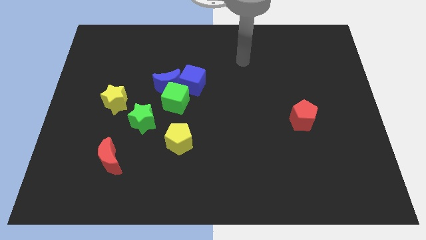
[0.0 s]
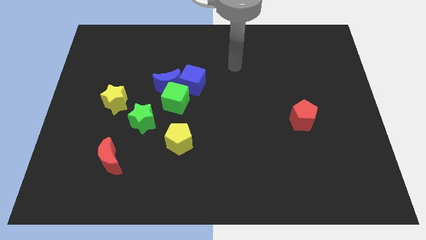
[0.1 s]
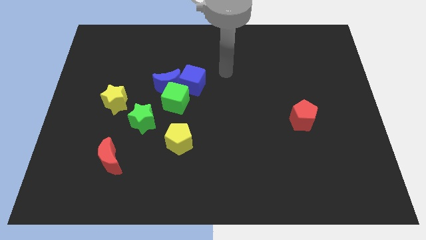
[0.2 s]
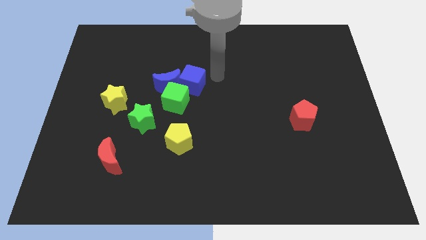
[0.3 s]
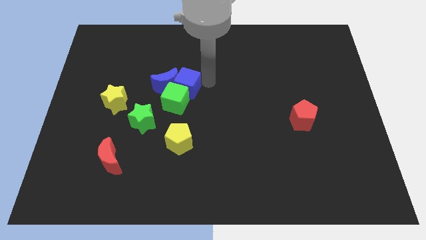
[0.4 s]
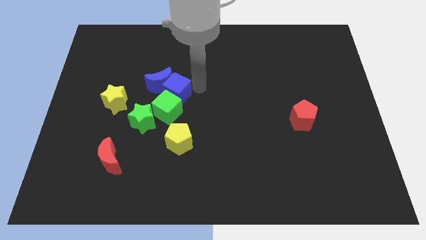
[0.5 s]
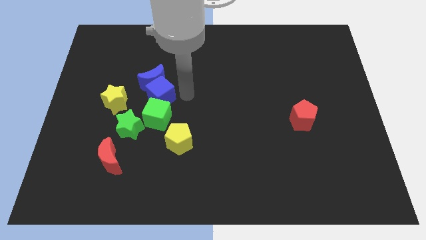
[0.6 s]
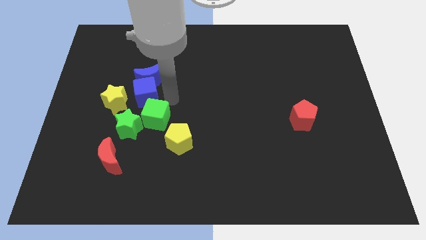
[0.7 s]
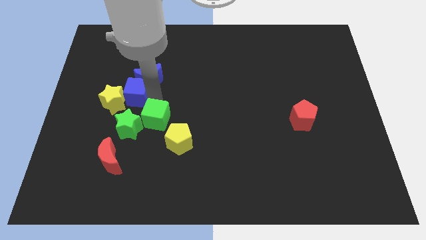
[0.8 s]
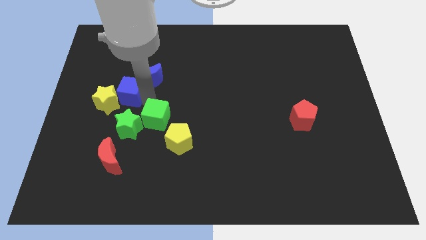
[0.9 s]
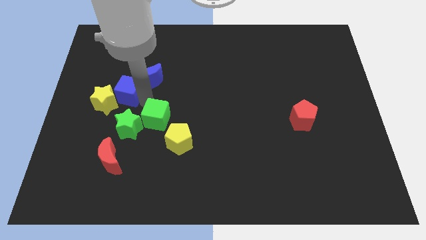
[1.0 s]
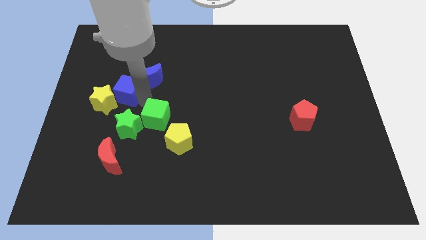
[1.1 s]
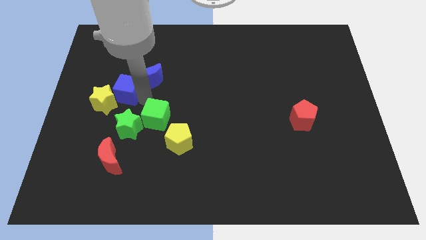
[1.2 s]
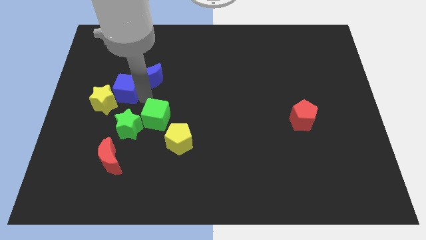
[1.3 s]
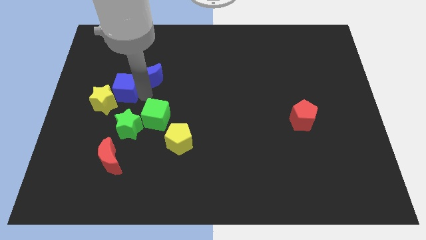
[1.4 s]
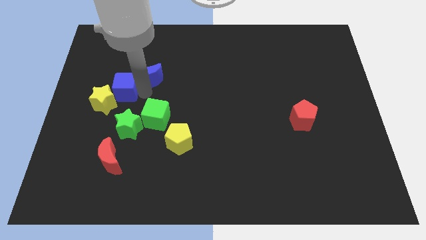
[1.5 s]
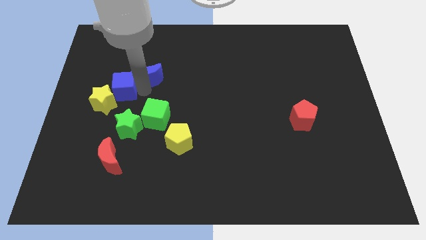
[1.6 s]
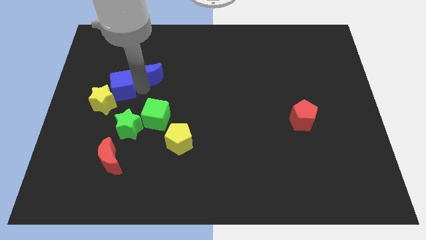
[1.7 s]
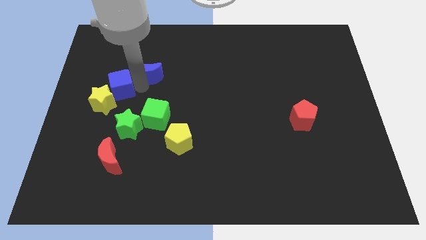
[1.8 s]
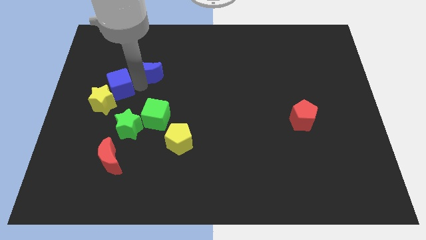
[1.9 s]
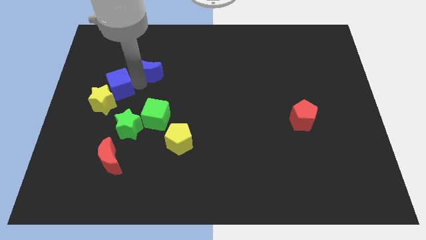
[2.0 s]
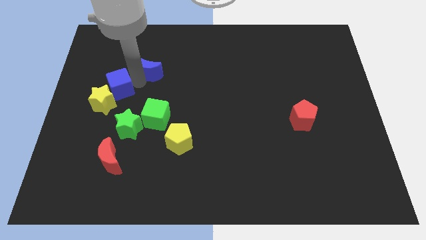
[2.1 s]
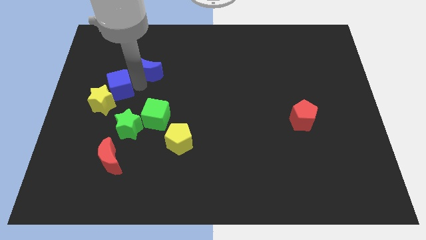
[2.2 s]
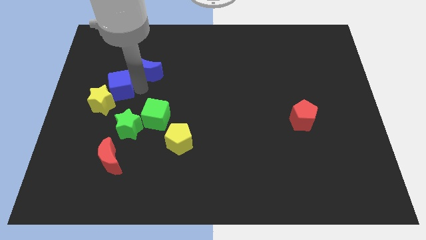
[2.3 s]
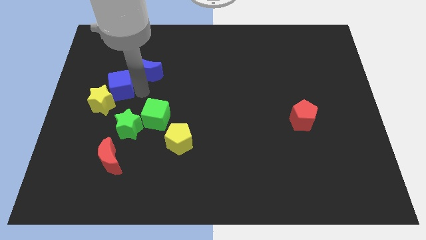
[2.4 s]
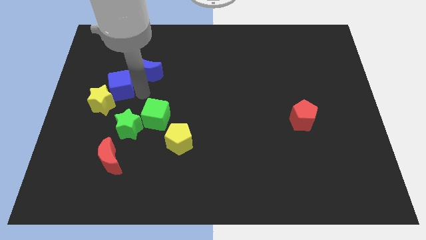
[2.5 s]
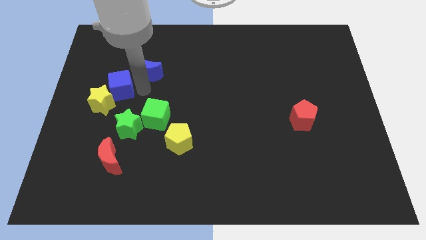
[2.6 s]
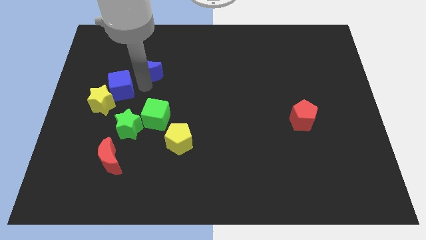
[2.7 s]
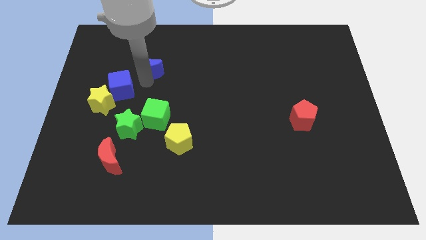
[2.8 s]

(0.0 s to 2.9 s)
separate the blue moon from the green cube and blue cube

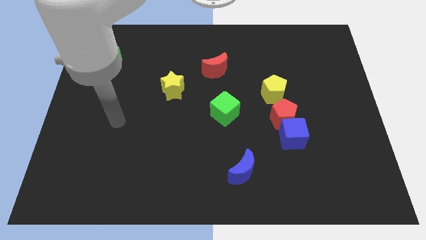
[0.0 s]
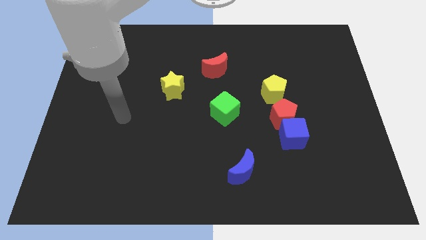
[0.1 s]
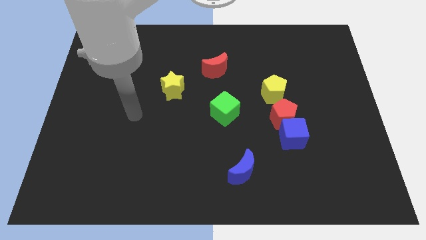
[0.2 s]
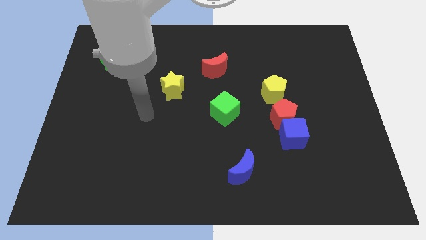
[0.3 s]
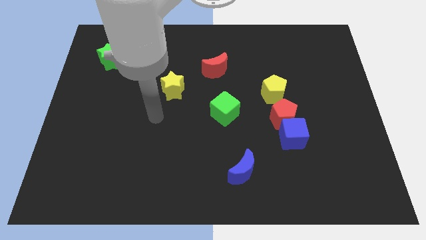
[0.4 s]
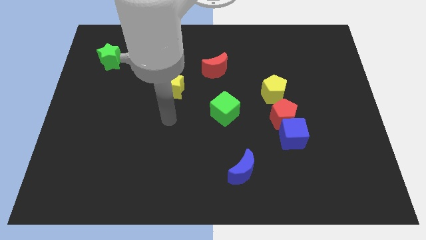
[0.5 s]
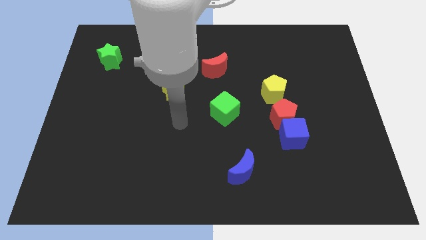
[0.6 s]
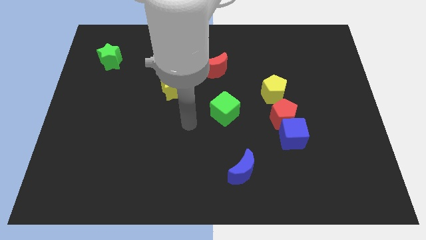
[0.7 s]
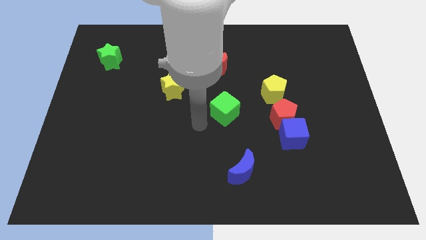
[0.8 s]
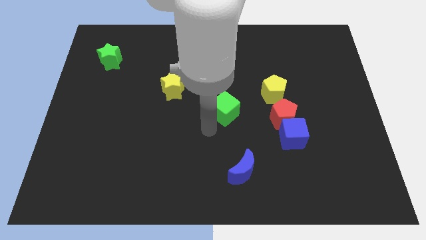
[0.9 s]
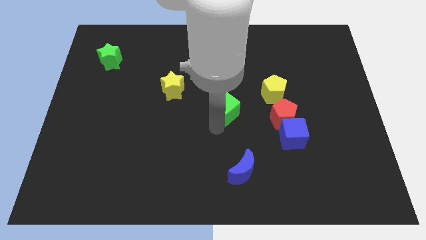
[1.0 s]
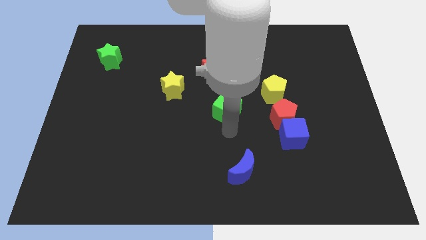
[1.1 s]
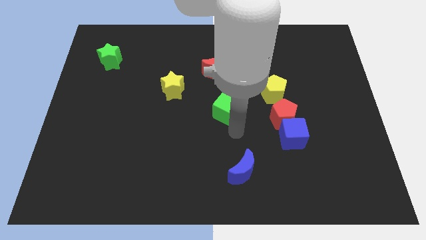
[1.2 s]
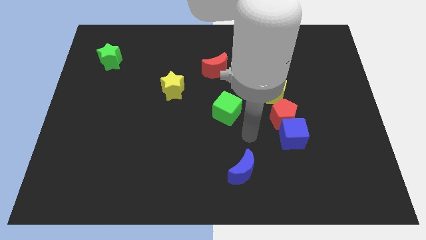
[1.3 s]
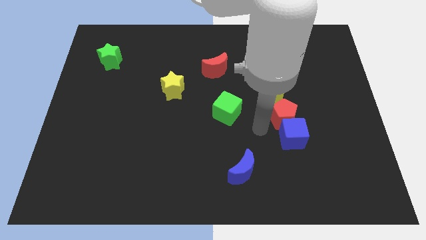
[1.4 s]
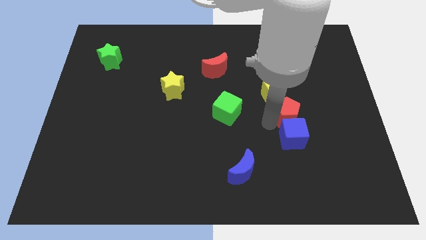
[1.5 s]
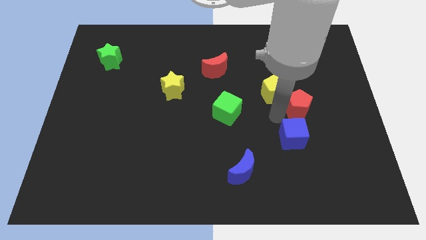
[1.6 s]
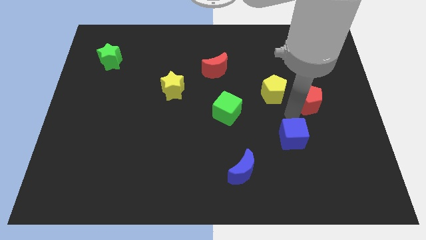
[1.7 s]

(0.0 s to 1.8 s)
pull the blue cube apart from the red pentagon

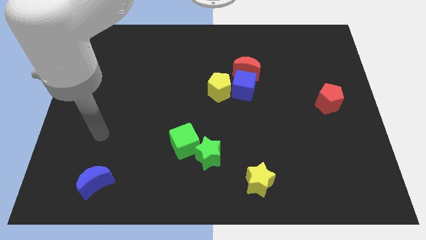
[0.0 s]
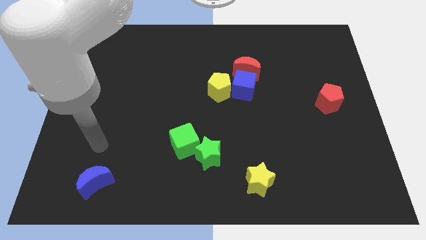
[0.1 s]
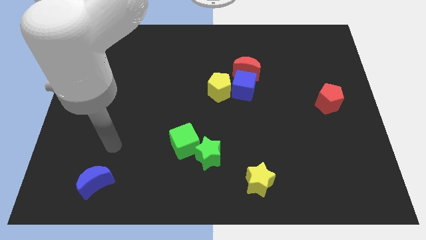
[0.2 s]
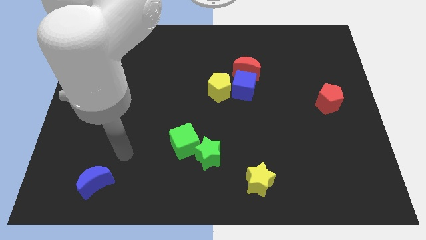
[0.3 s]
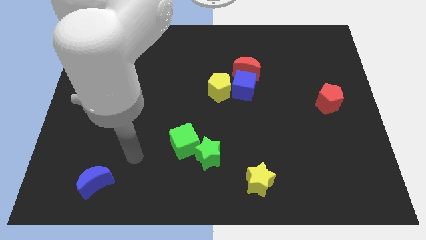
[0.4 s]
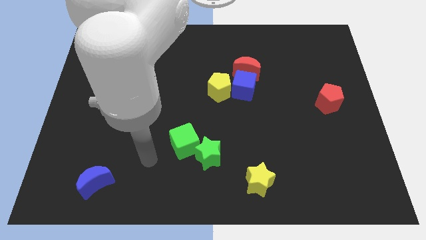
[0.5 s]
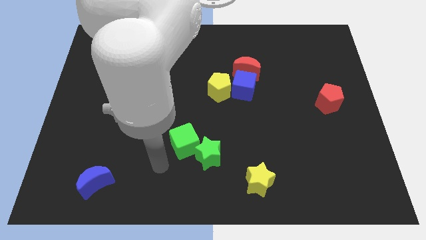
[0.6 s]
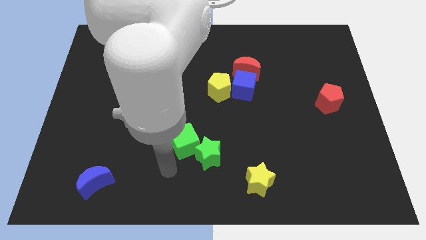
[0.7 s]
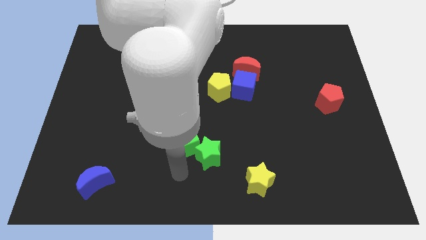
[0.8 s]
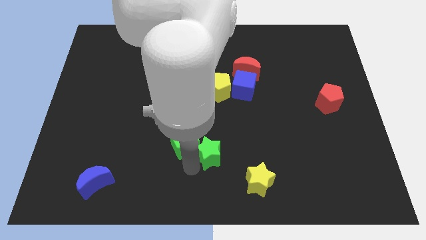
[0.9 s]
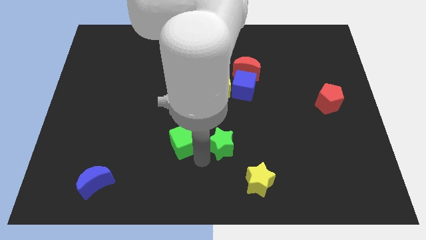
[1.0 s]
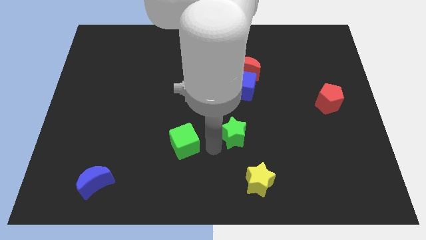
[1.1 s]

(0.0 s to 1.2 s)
move the green cube away from the green star

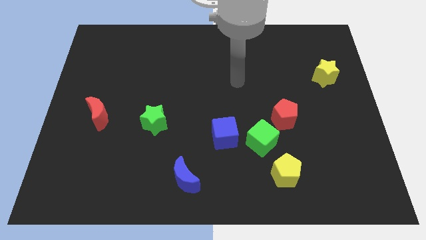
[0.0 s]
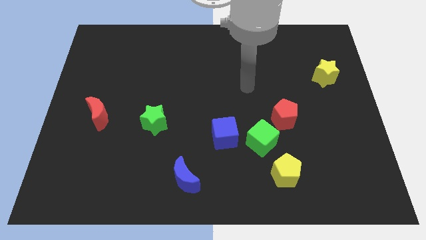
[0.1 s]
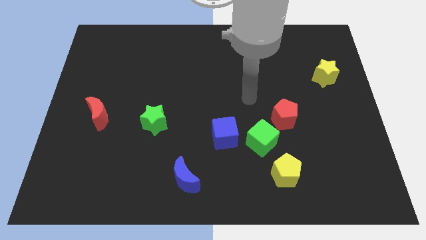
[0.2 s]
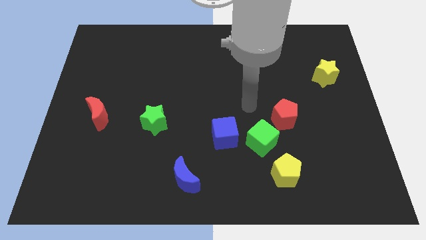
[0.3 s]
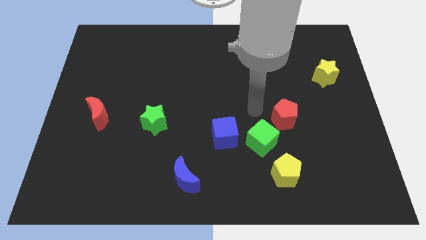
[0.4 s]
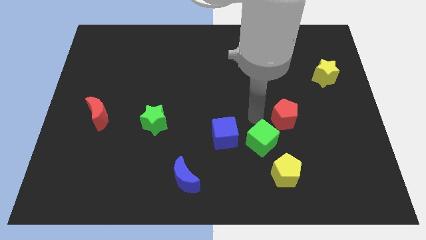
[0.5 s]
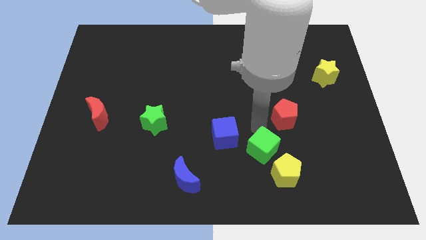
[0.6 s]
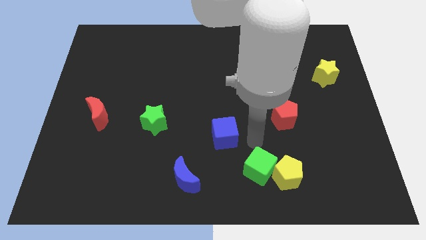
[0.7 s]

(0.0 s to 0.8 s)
move the blue cube away from the green cube

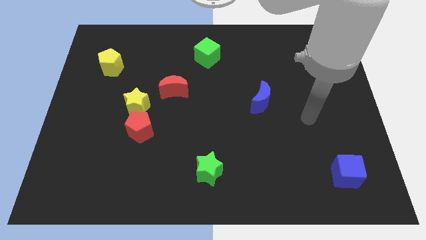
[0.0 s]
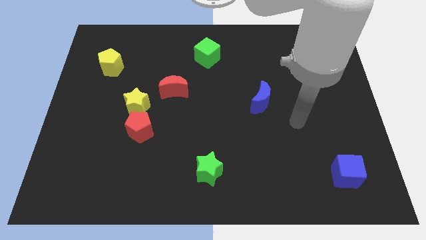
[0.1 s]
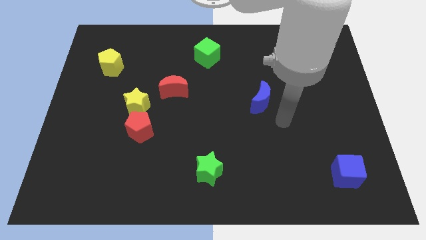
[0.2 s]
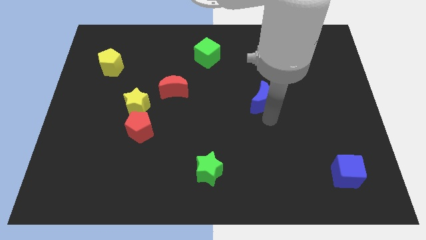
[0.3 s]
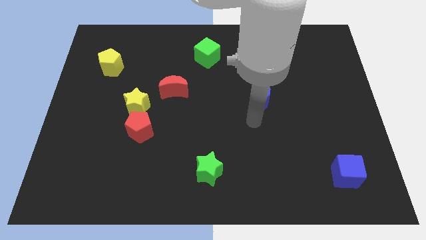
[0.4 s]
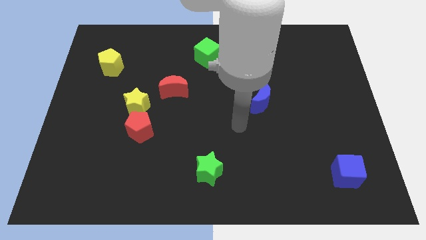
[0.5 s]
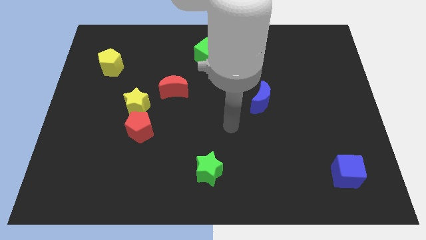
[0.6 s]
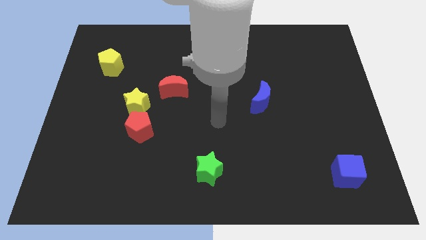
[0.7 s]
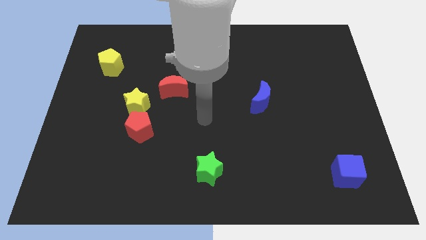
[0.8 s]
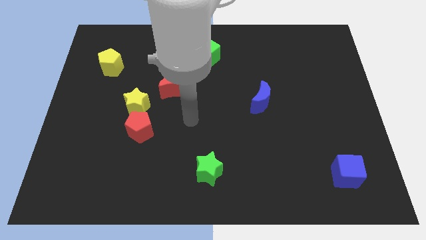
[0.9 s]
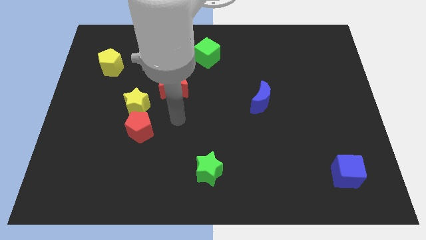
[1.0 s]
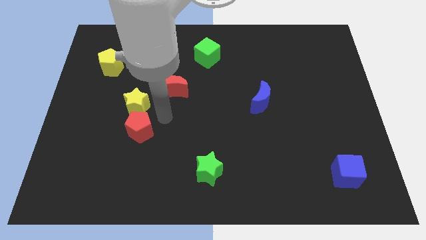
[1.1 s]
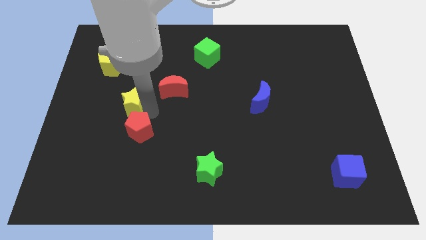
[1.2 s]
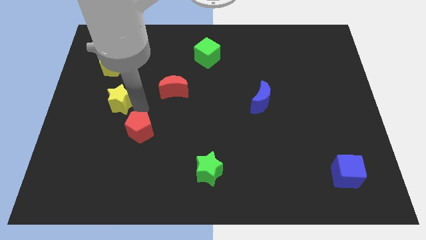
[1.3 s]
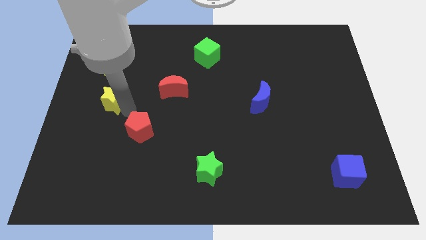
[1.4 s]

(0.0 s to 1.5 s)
separate the red pentagon from the yellow star

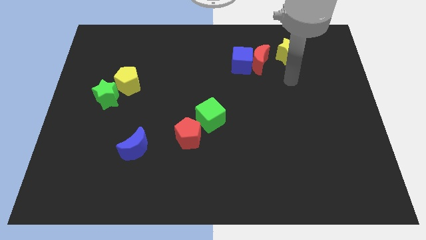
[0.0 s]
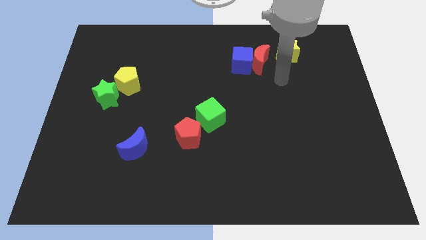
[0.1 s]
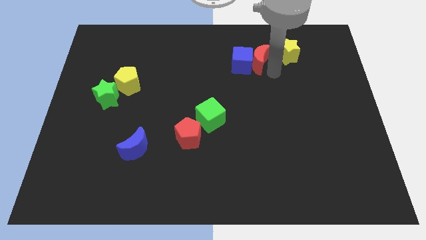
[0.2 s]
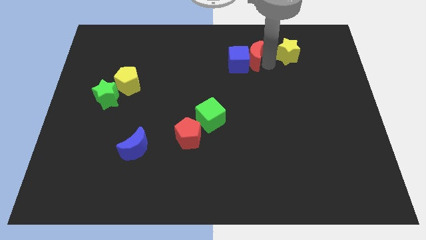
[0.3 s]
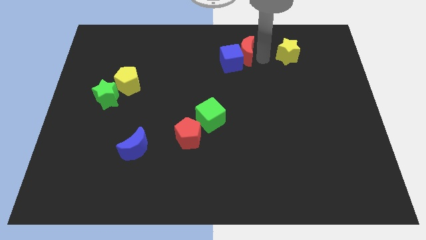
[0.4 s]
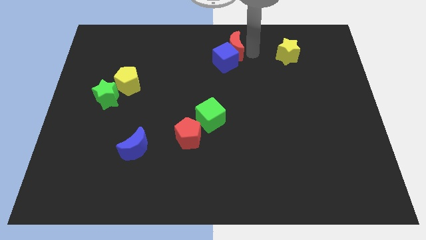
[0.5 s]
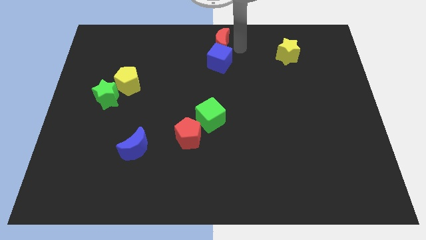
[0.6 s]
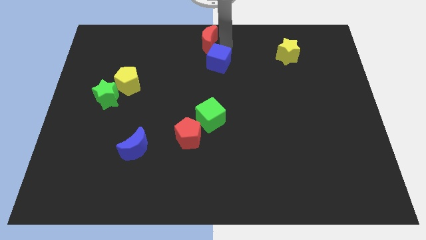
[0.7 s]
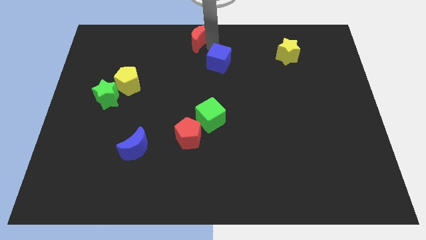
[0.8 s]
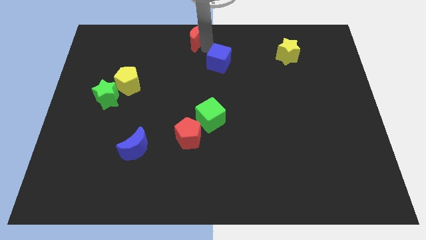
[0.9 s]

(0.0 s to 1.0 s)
move the blue cube away from the red moon
